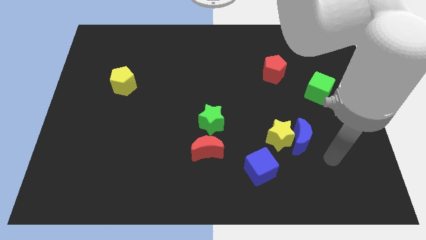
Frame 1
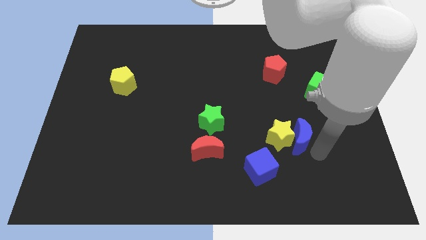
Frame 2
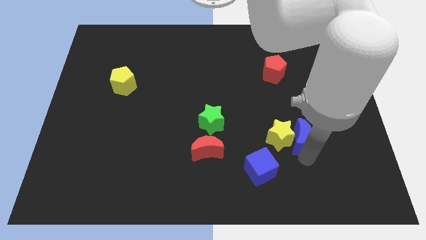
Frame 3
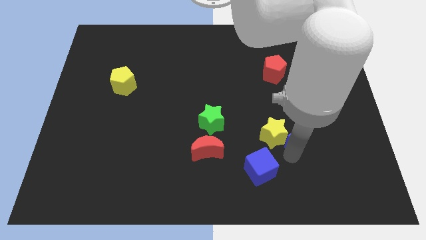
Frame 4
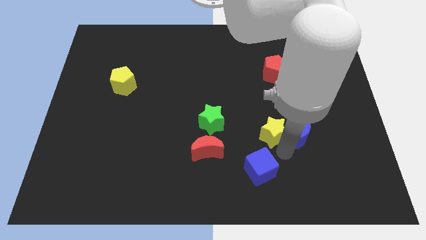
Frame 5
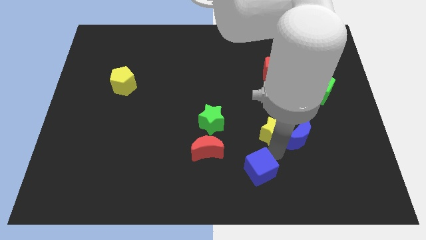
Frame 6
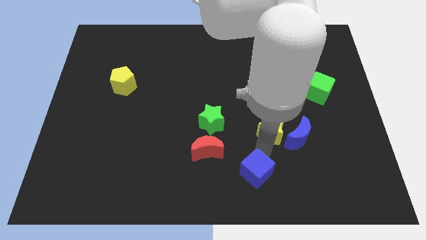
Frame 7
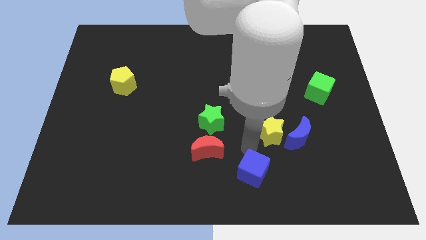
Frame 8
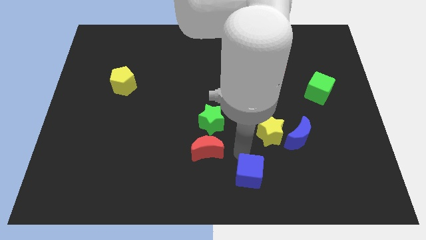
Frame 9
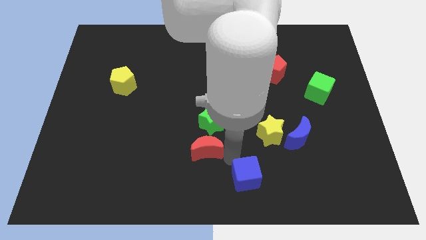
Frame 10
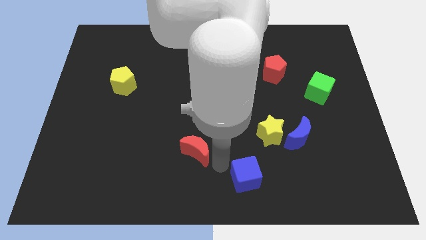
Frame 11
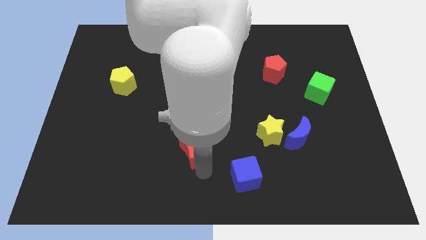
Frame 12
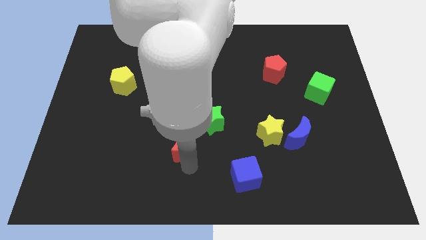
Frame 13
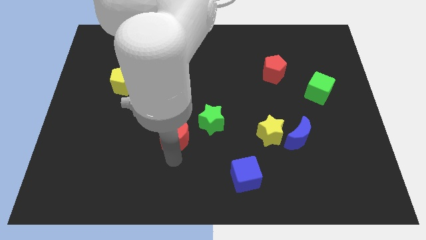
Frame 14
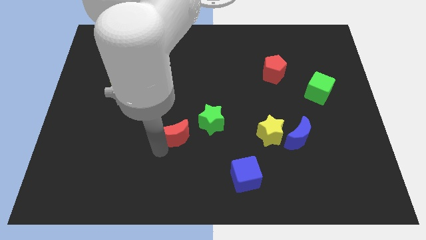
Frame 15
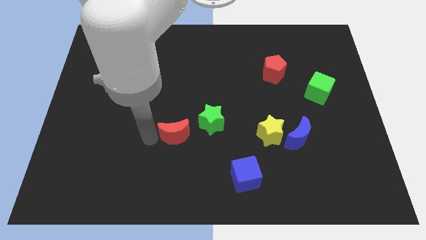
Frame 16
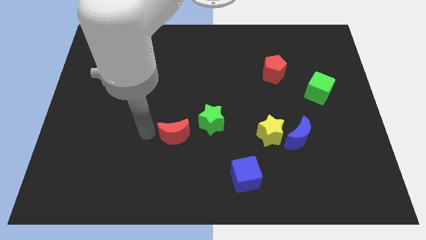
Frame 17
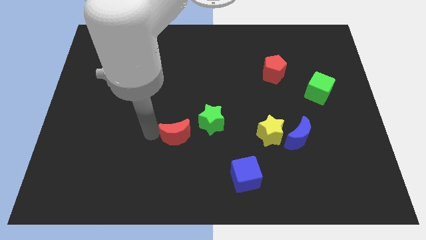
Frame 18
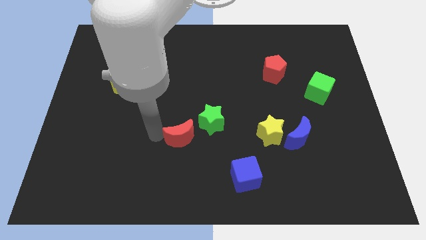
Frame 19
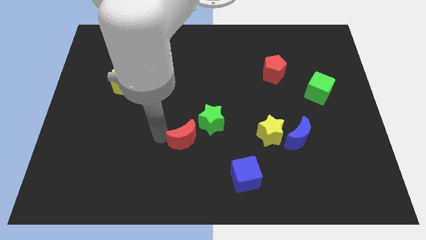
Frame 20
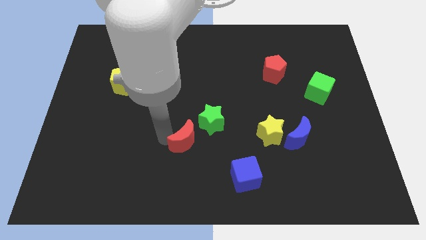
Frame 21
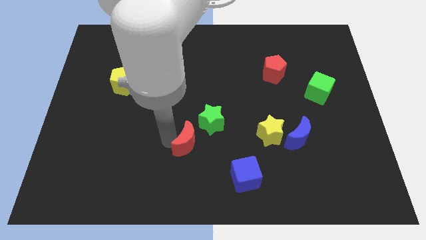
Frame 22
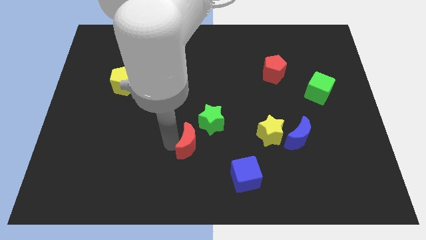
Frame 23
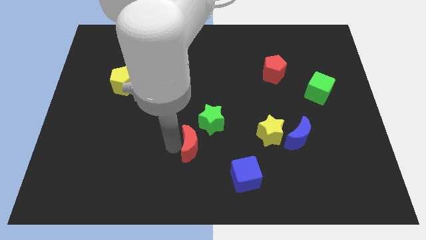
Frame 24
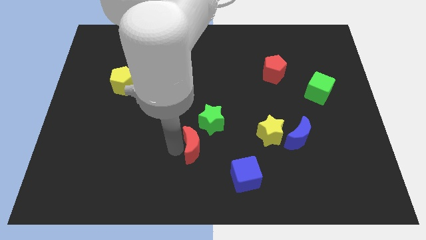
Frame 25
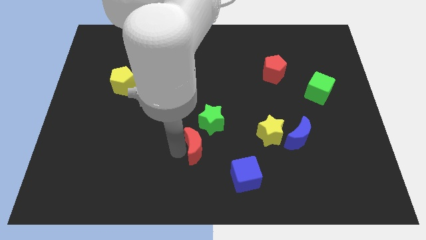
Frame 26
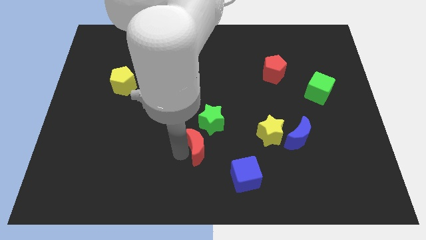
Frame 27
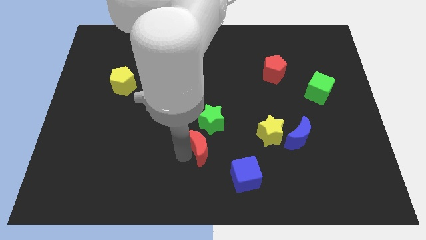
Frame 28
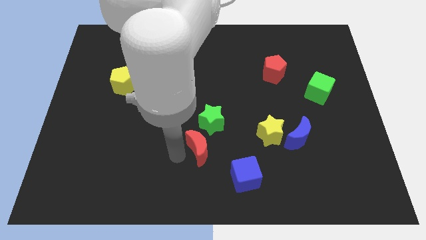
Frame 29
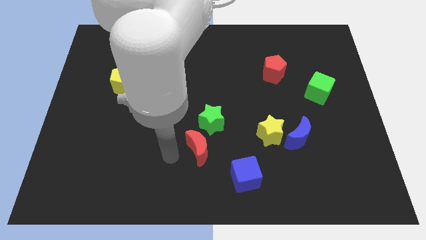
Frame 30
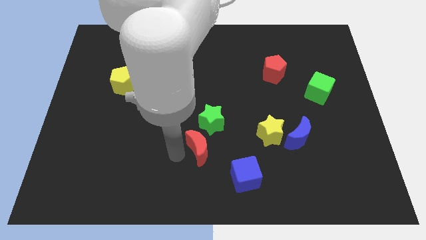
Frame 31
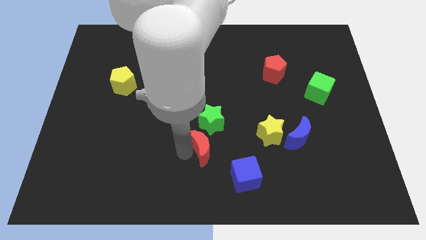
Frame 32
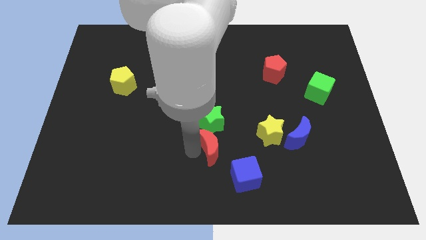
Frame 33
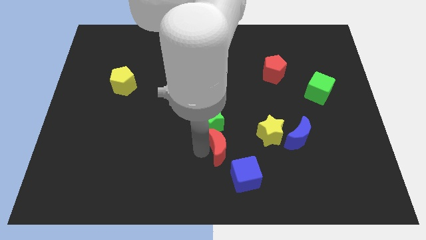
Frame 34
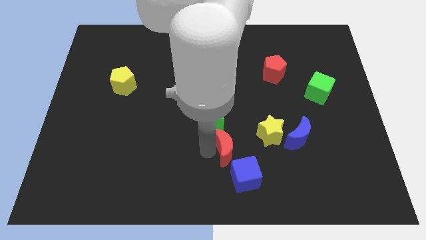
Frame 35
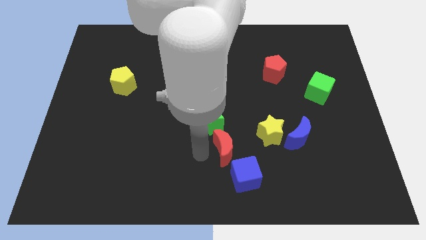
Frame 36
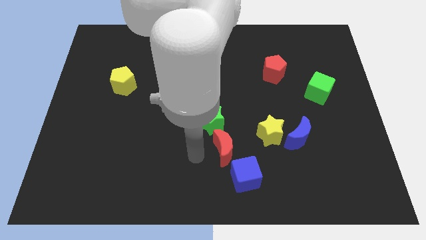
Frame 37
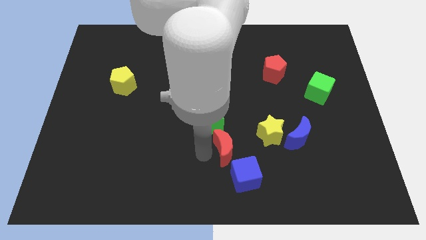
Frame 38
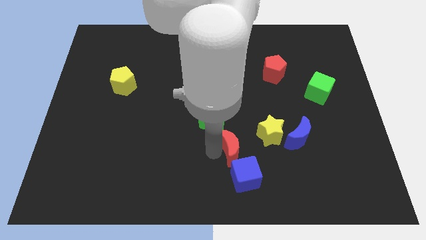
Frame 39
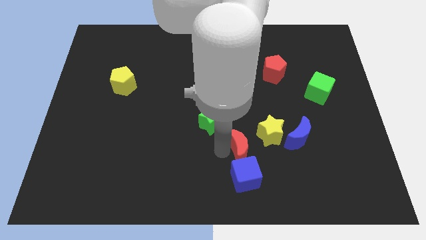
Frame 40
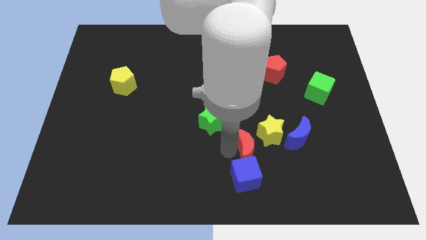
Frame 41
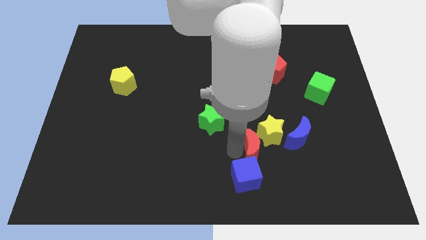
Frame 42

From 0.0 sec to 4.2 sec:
slide the red moon close to the yellow star

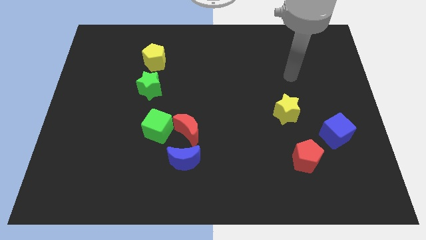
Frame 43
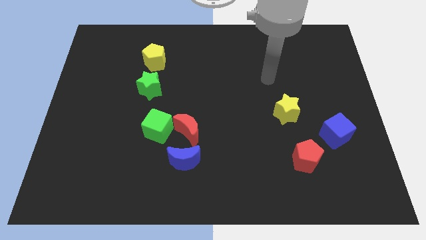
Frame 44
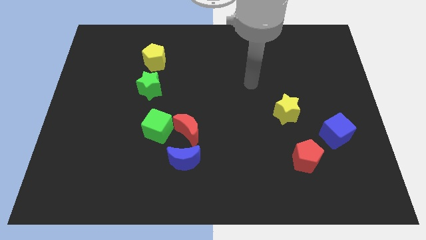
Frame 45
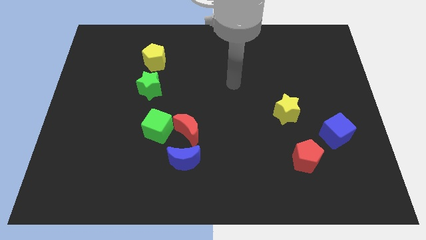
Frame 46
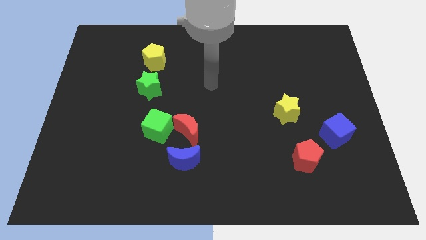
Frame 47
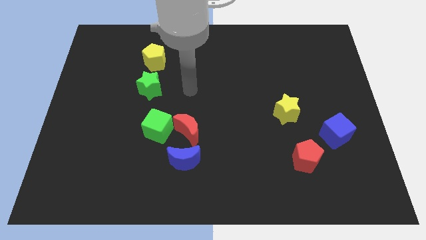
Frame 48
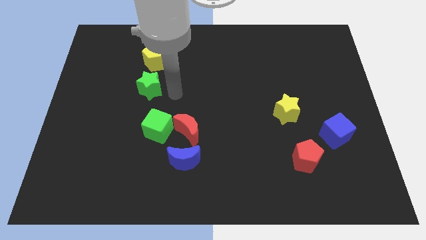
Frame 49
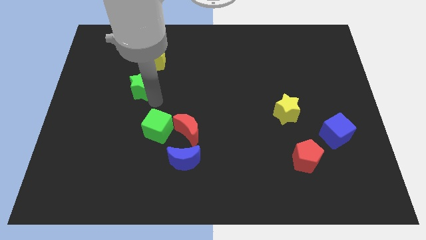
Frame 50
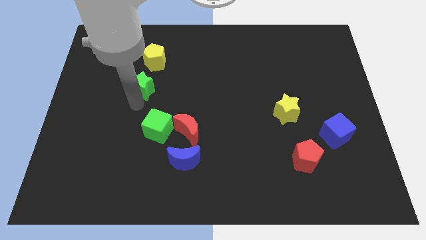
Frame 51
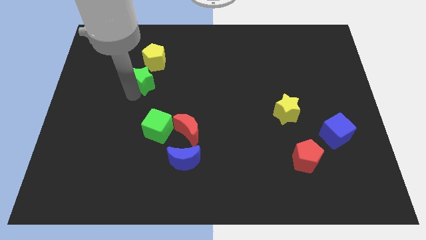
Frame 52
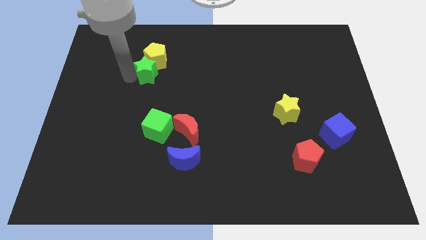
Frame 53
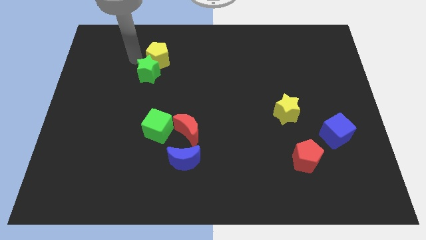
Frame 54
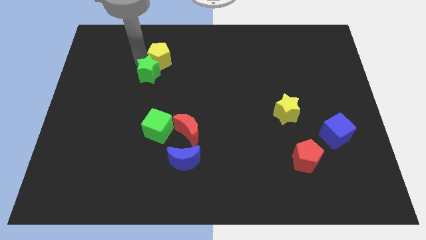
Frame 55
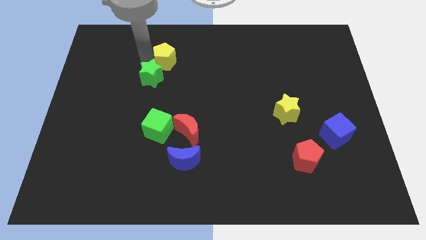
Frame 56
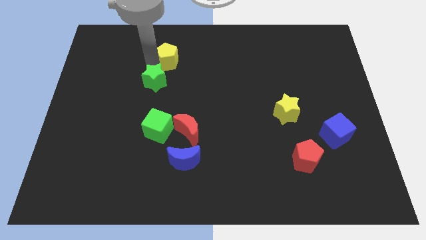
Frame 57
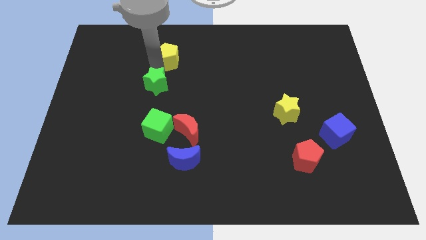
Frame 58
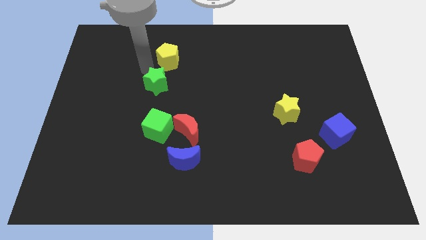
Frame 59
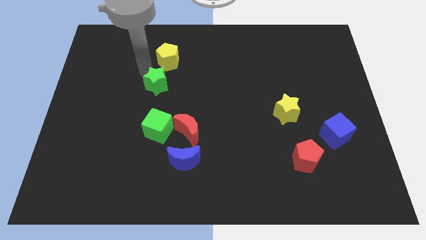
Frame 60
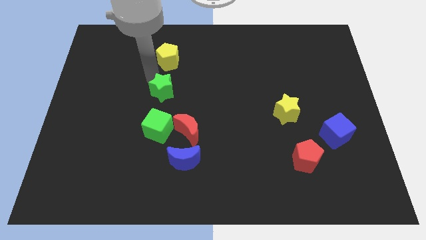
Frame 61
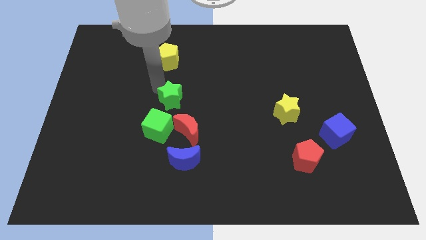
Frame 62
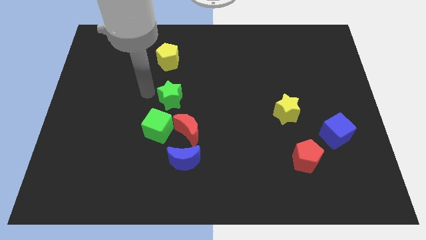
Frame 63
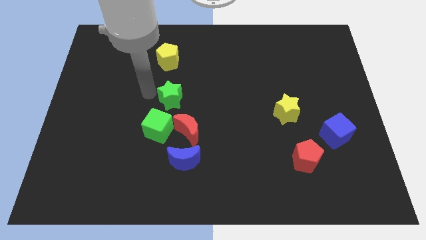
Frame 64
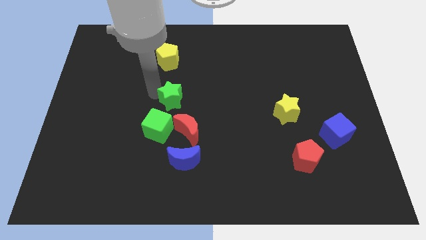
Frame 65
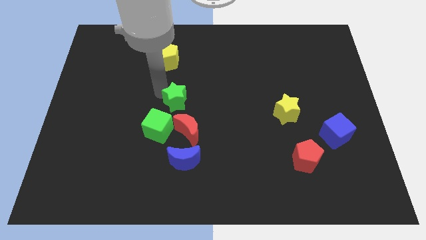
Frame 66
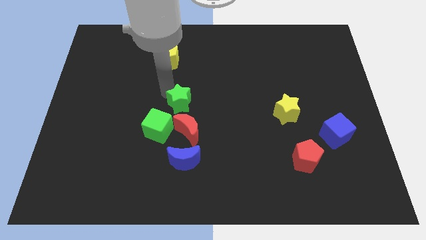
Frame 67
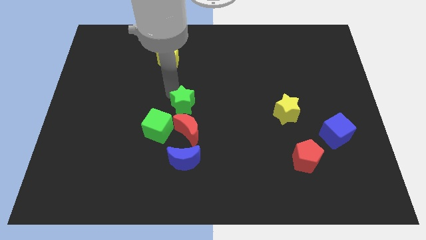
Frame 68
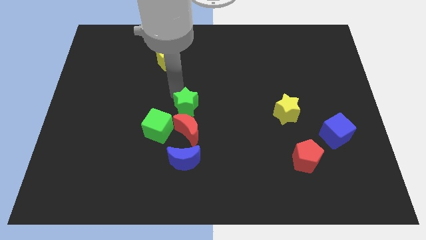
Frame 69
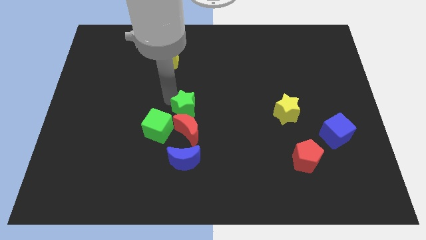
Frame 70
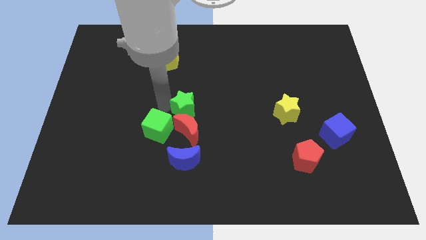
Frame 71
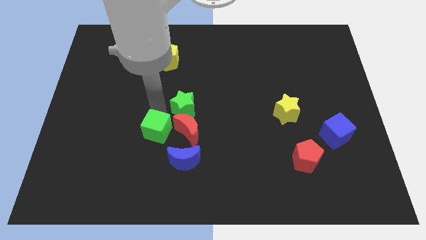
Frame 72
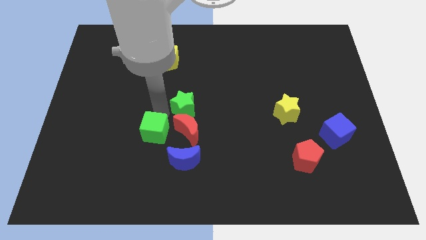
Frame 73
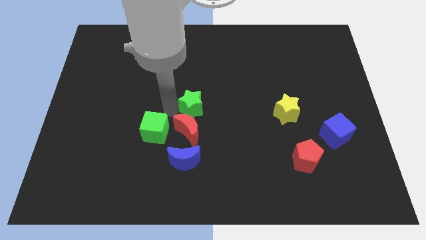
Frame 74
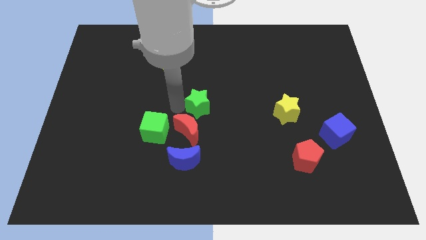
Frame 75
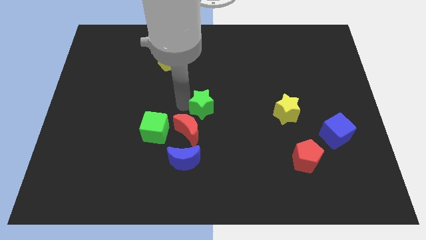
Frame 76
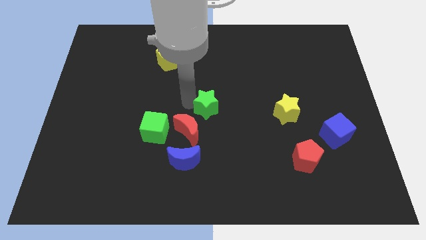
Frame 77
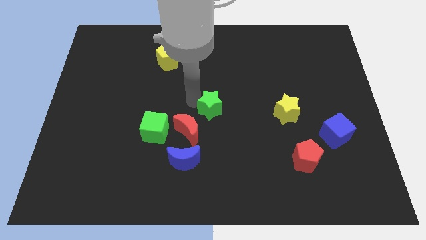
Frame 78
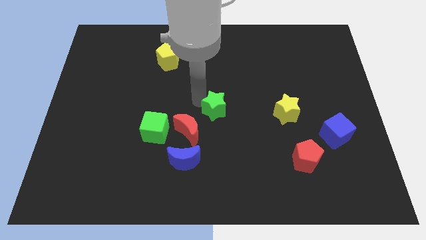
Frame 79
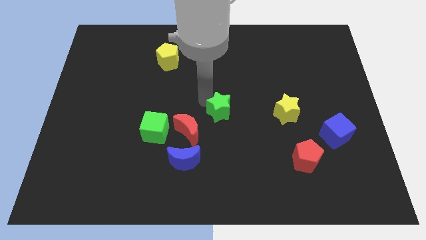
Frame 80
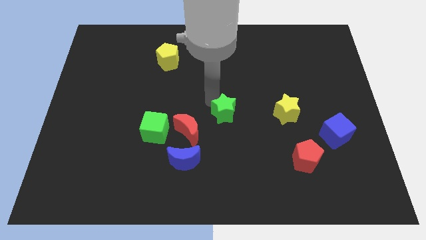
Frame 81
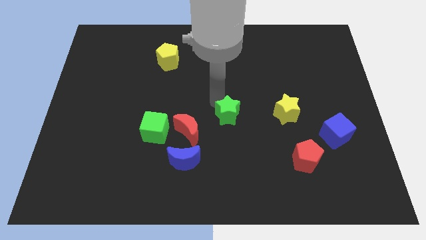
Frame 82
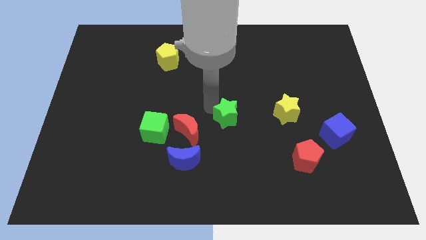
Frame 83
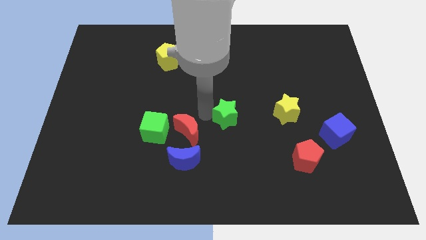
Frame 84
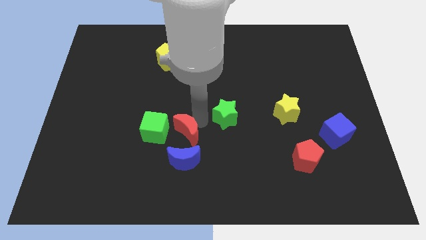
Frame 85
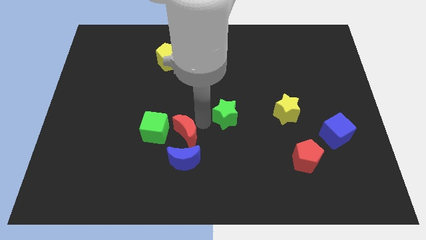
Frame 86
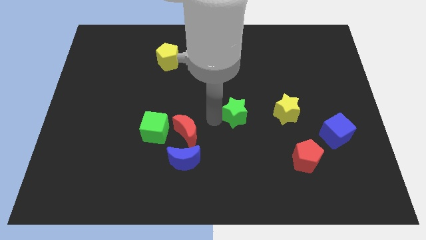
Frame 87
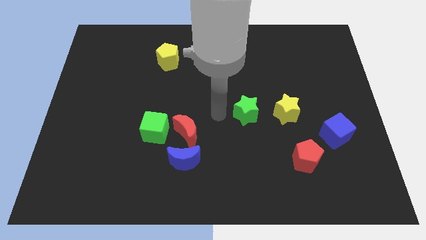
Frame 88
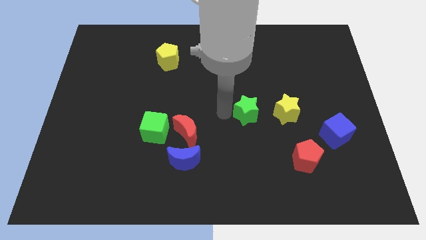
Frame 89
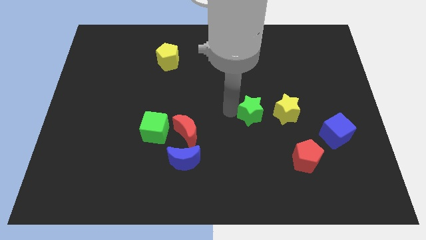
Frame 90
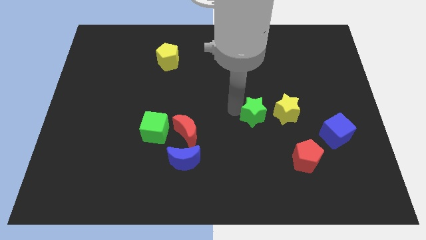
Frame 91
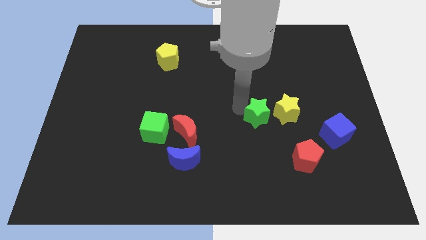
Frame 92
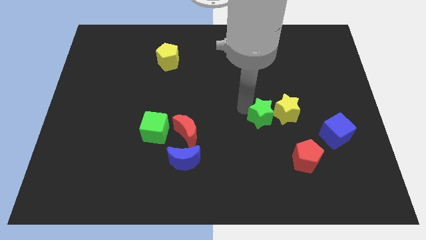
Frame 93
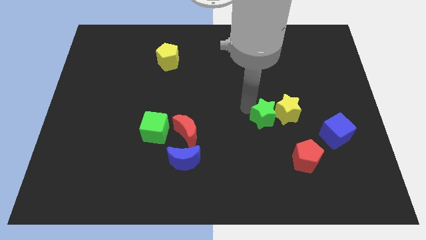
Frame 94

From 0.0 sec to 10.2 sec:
put the green star towards the yellow star
